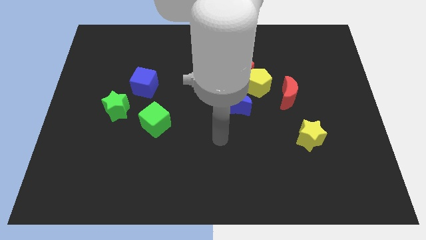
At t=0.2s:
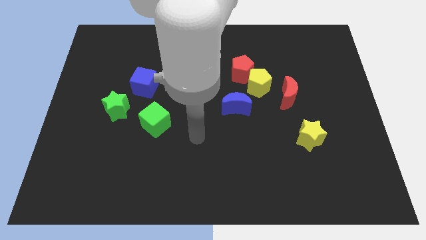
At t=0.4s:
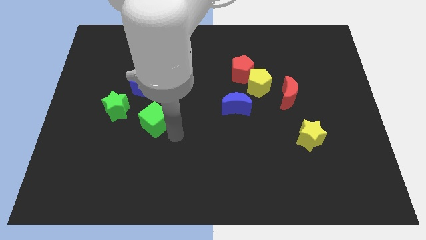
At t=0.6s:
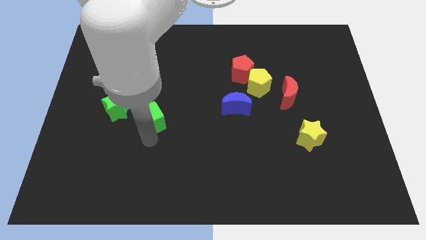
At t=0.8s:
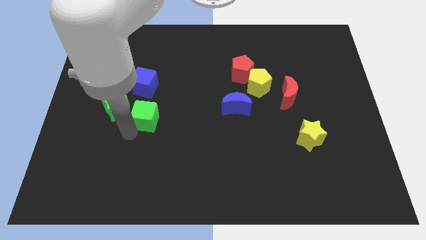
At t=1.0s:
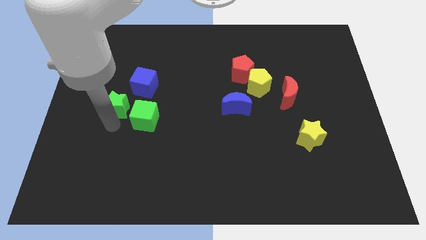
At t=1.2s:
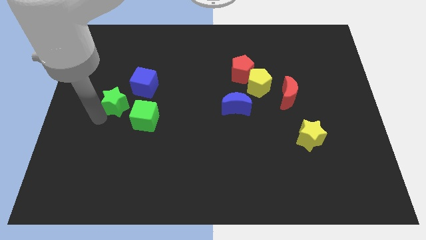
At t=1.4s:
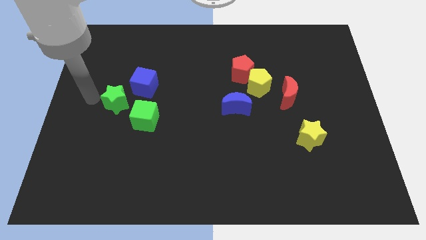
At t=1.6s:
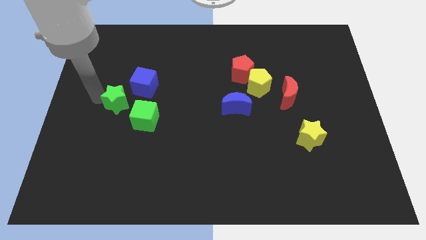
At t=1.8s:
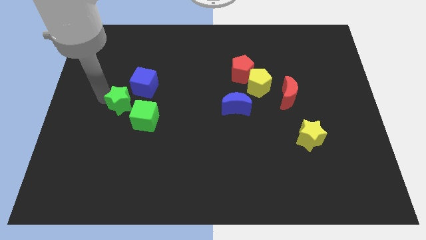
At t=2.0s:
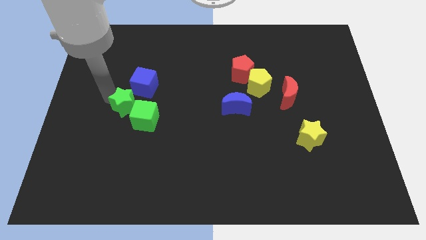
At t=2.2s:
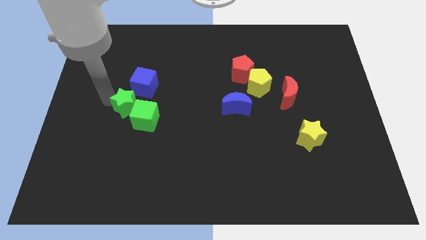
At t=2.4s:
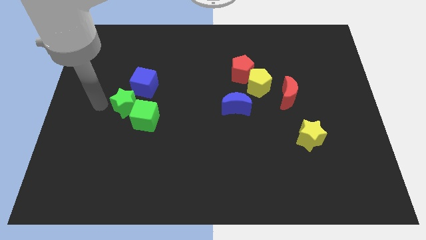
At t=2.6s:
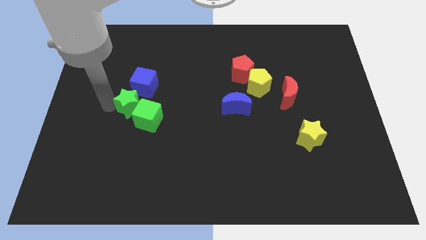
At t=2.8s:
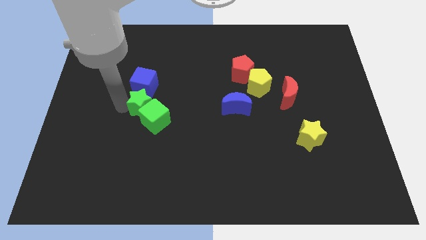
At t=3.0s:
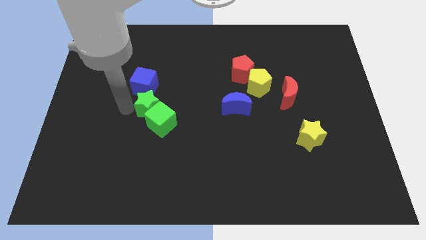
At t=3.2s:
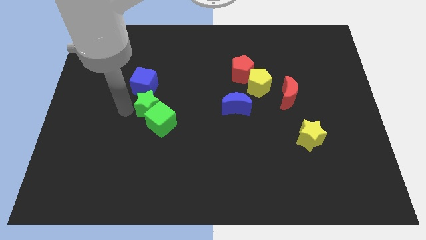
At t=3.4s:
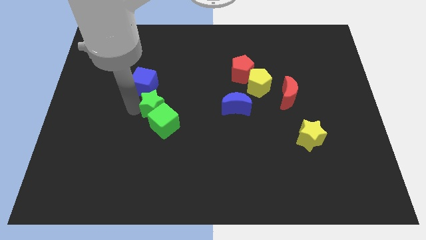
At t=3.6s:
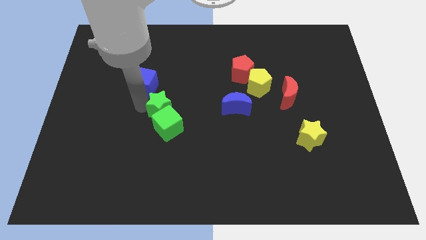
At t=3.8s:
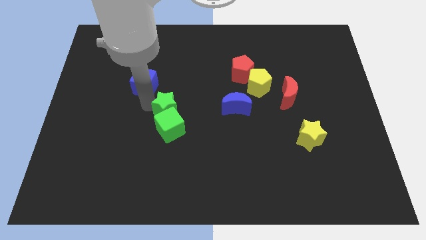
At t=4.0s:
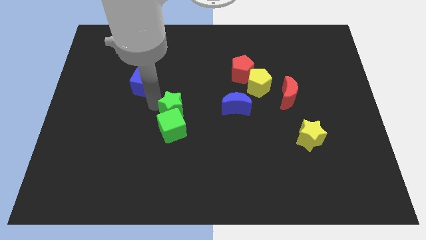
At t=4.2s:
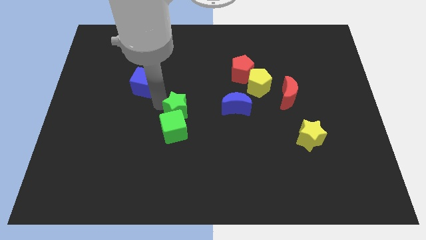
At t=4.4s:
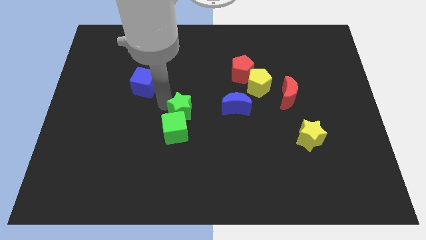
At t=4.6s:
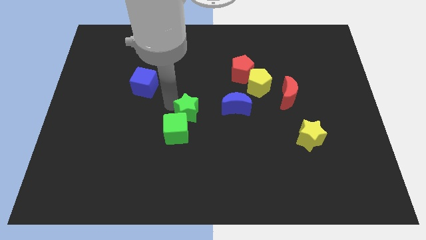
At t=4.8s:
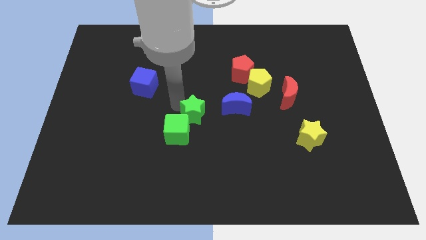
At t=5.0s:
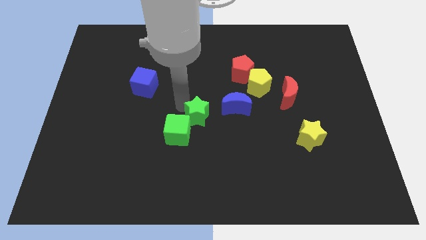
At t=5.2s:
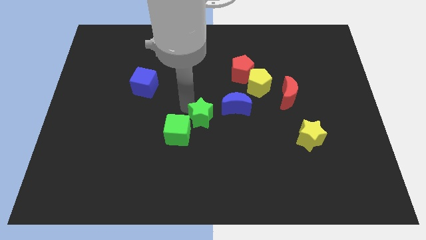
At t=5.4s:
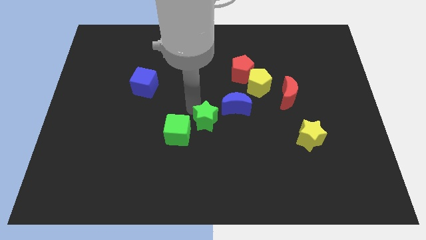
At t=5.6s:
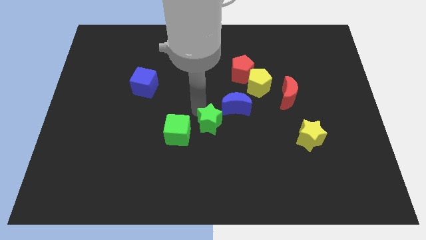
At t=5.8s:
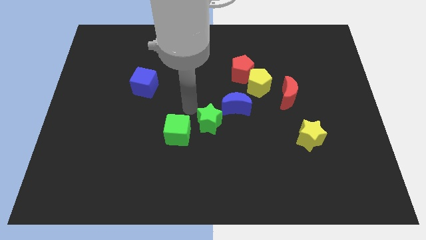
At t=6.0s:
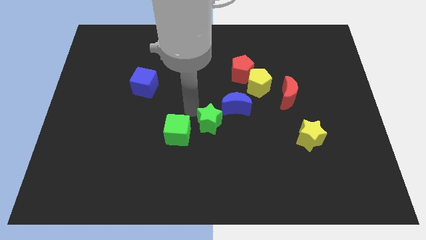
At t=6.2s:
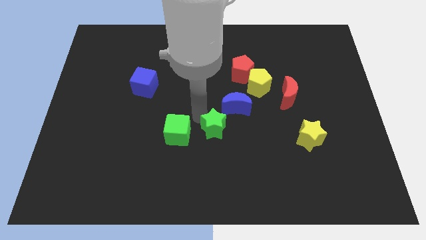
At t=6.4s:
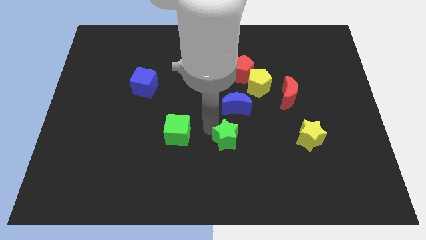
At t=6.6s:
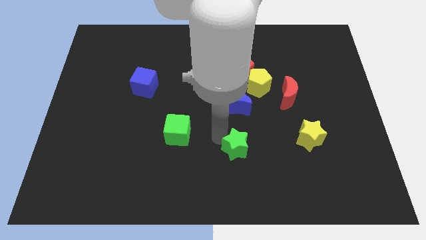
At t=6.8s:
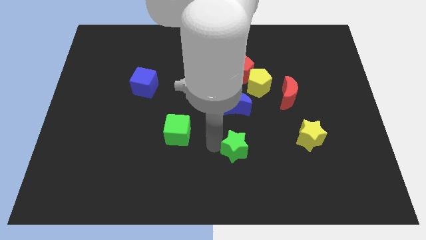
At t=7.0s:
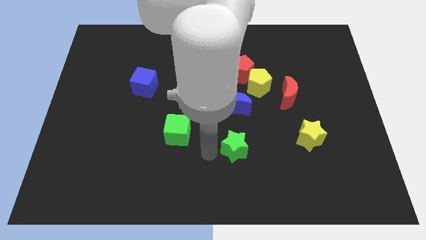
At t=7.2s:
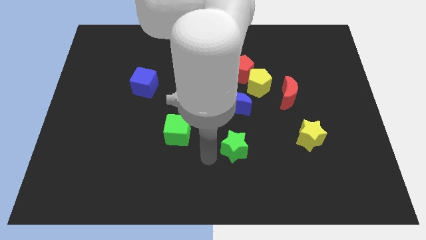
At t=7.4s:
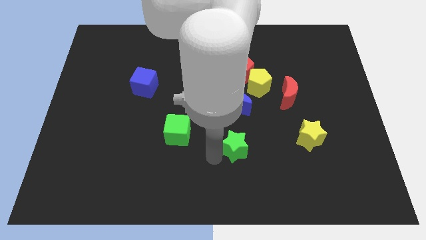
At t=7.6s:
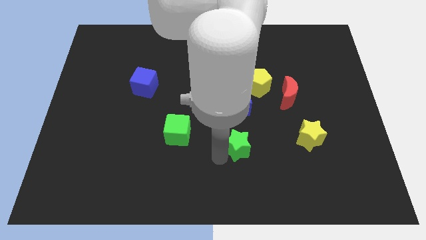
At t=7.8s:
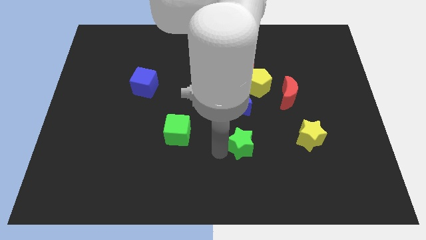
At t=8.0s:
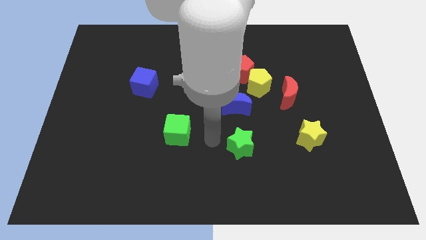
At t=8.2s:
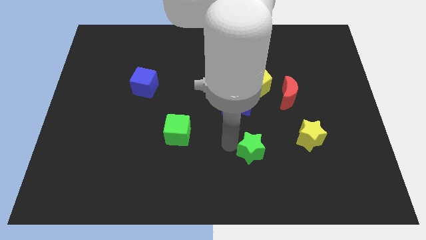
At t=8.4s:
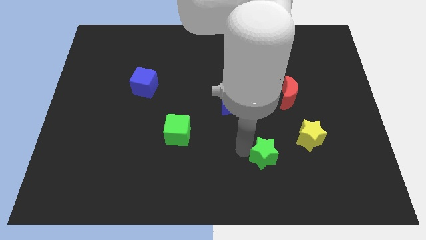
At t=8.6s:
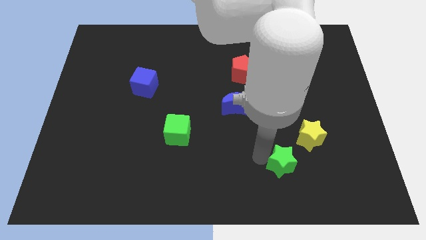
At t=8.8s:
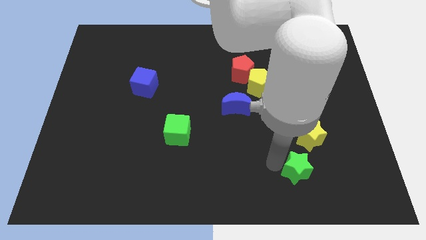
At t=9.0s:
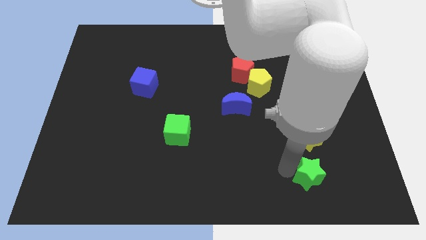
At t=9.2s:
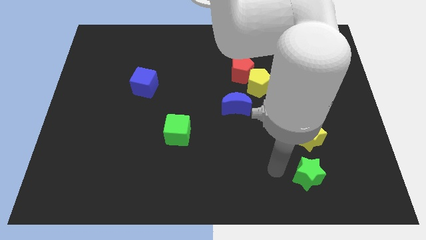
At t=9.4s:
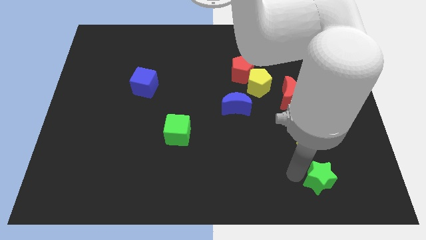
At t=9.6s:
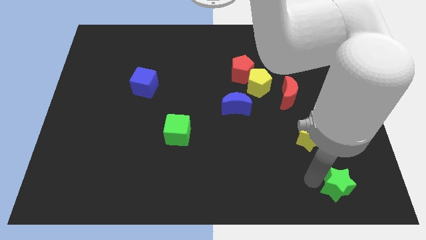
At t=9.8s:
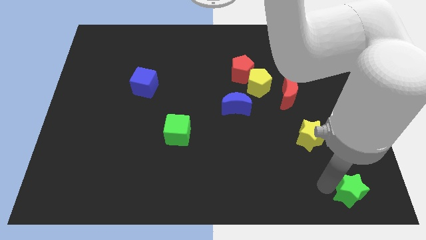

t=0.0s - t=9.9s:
move the green star to the bottom right corner
